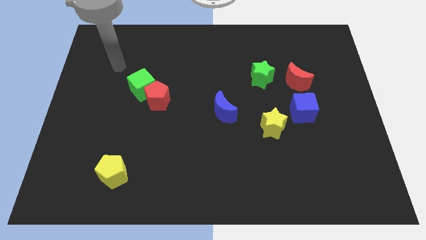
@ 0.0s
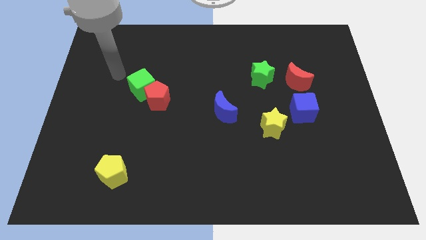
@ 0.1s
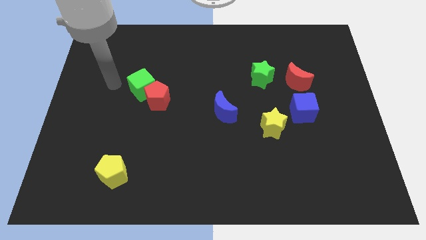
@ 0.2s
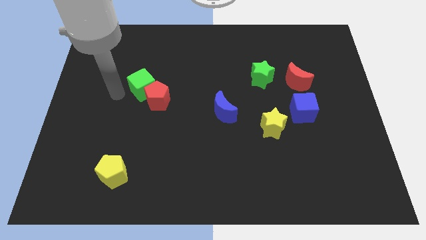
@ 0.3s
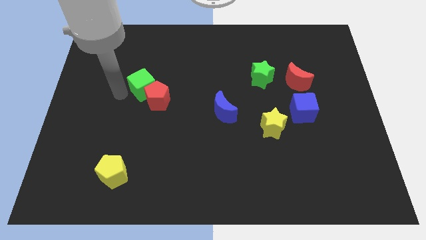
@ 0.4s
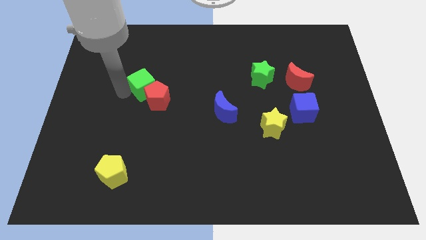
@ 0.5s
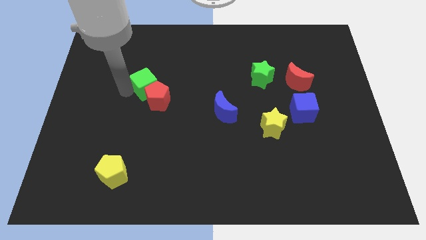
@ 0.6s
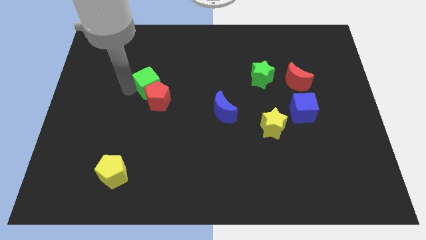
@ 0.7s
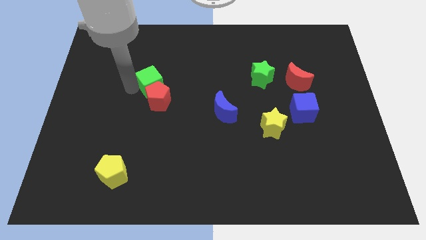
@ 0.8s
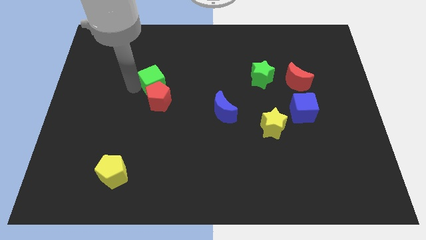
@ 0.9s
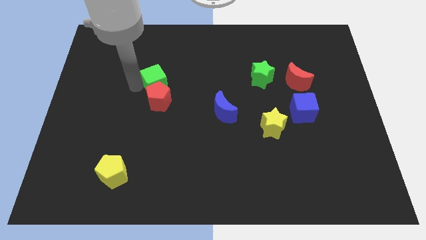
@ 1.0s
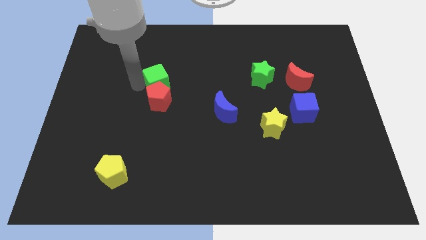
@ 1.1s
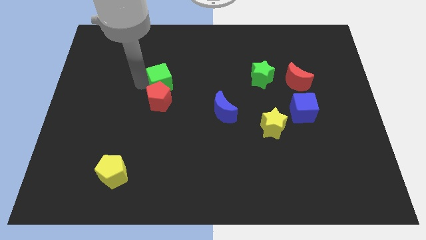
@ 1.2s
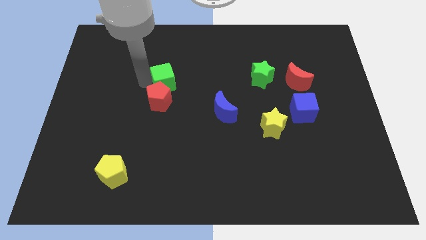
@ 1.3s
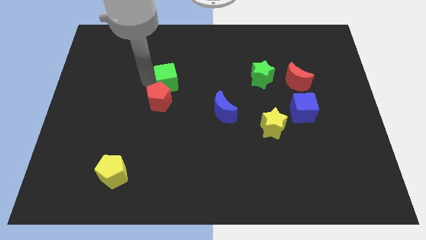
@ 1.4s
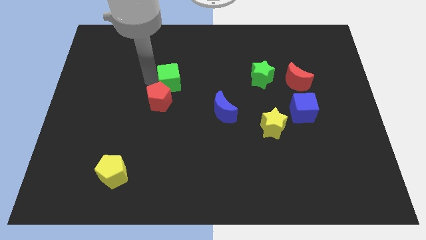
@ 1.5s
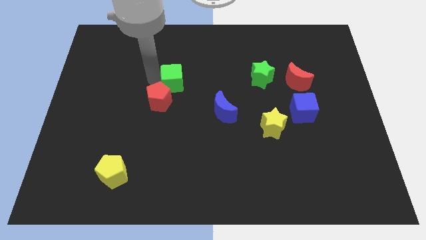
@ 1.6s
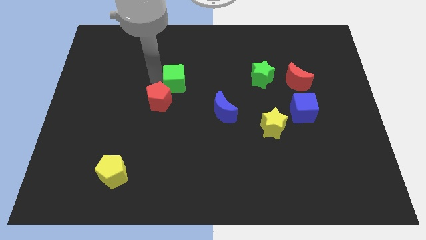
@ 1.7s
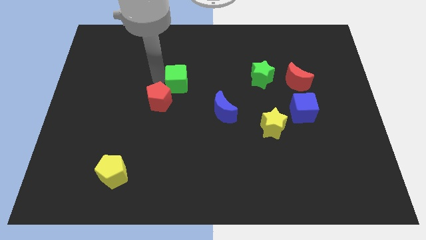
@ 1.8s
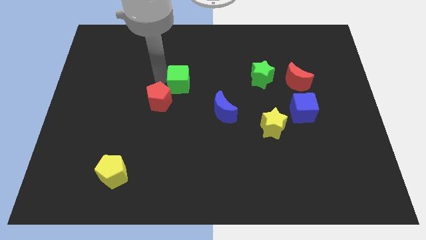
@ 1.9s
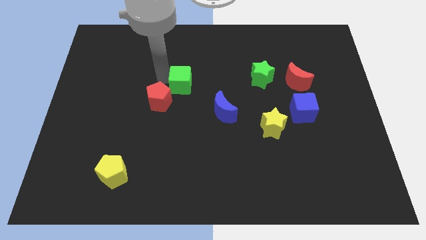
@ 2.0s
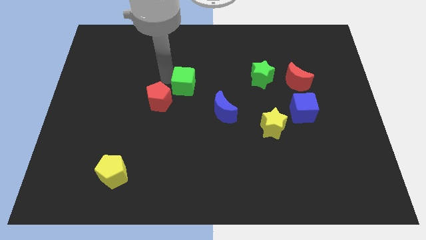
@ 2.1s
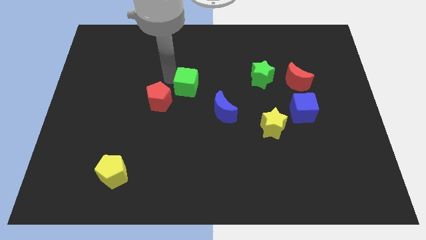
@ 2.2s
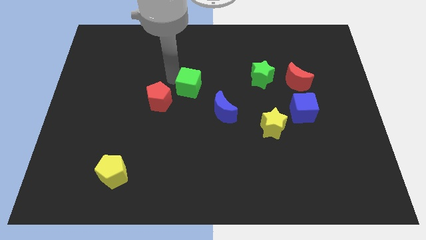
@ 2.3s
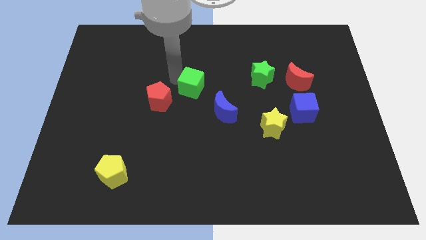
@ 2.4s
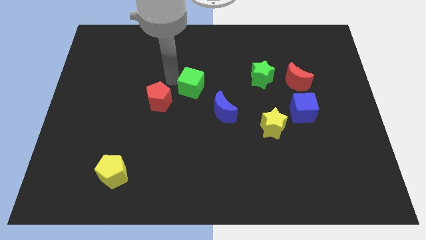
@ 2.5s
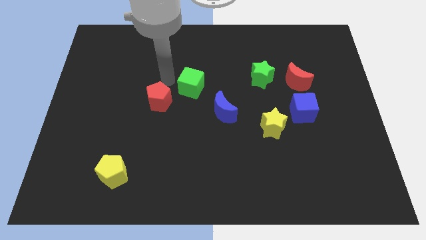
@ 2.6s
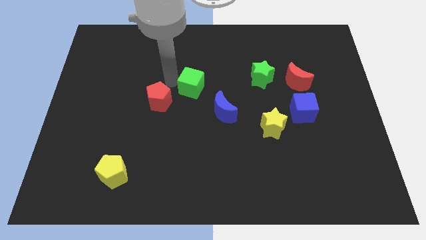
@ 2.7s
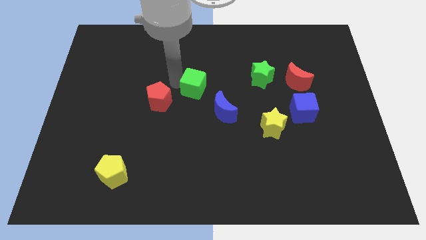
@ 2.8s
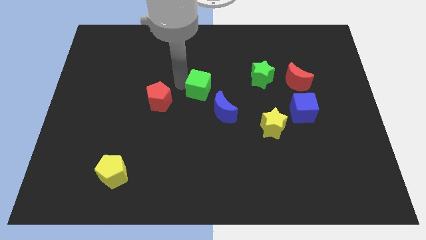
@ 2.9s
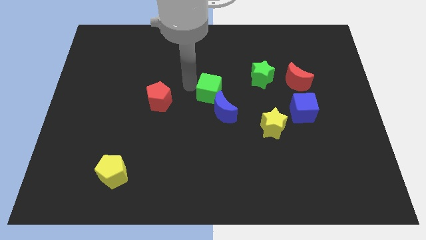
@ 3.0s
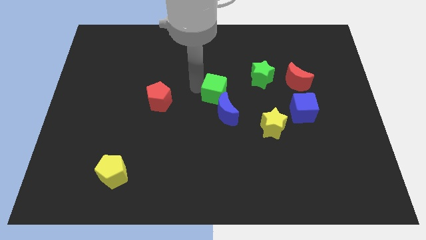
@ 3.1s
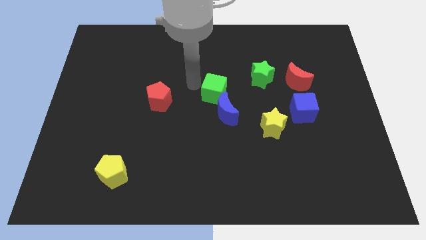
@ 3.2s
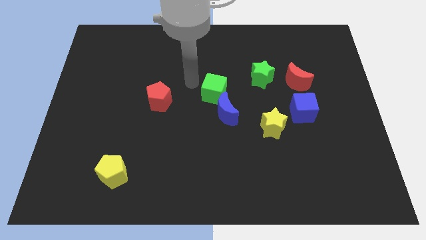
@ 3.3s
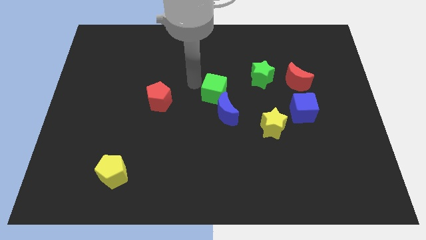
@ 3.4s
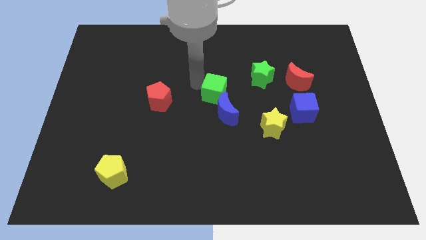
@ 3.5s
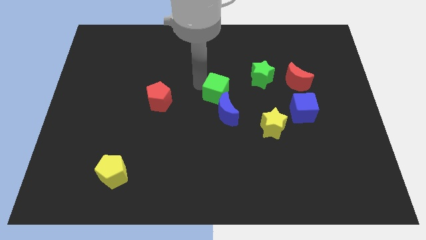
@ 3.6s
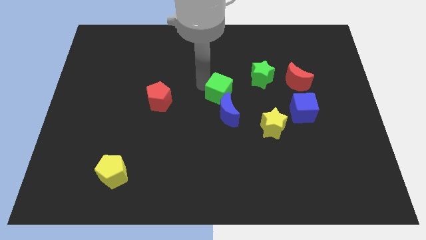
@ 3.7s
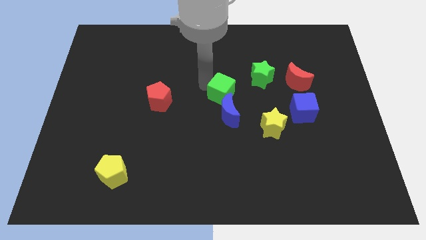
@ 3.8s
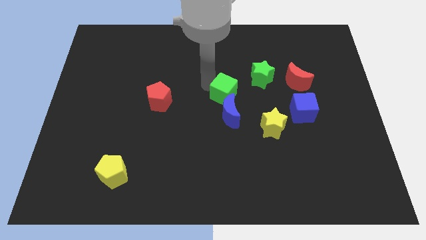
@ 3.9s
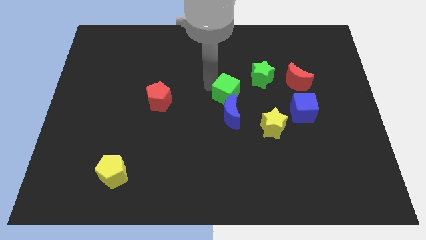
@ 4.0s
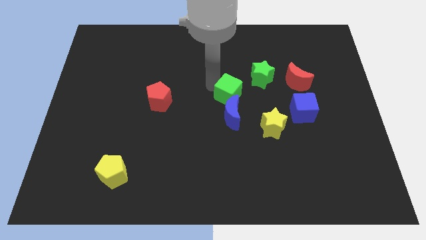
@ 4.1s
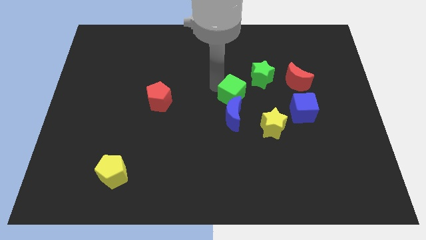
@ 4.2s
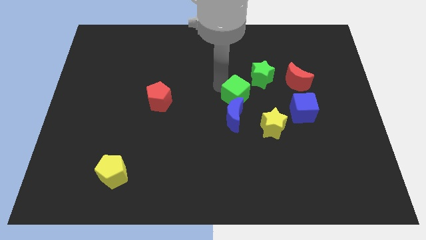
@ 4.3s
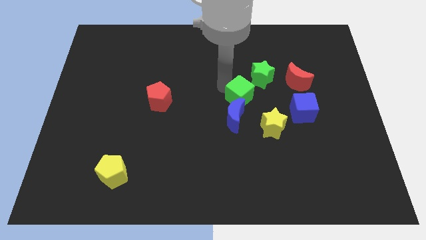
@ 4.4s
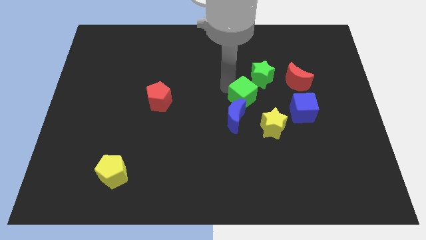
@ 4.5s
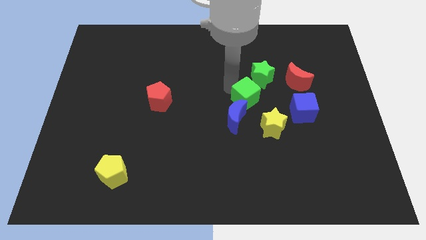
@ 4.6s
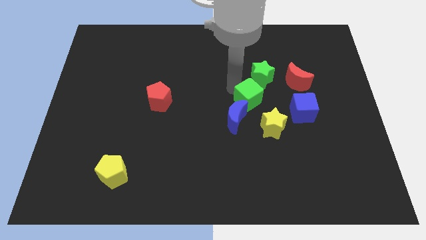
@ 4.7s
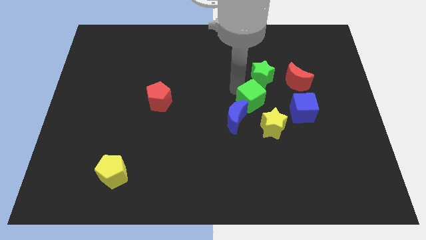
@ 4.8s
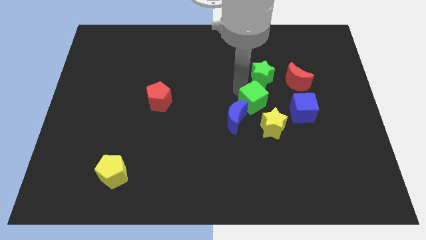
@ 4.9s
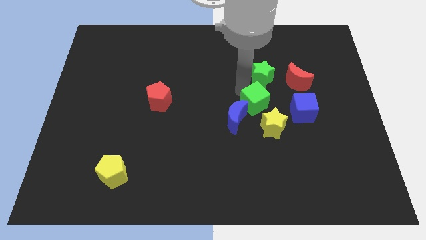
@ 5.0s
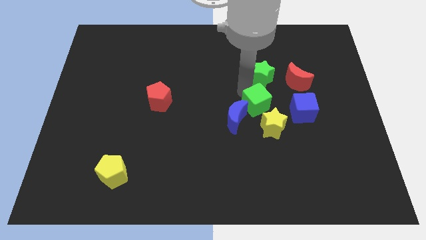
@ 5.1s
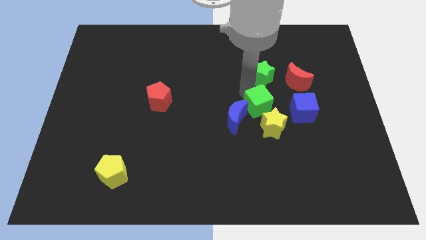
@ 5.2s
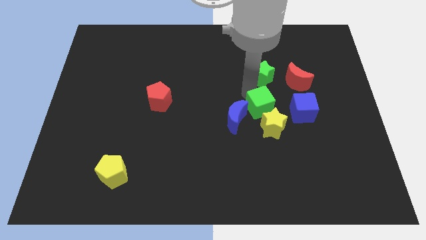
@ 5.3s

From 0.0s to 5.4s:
push the green cube next to the yellow star

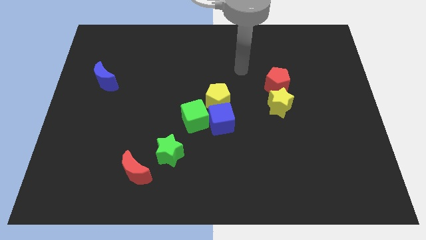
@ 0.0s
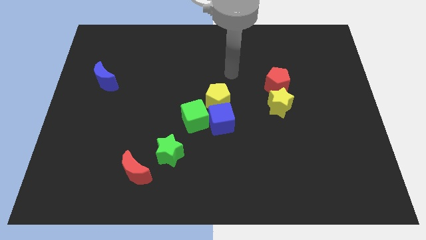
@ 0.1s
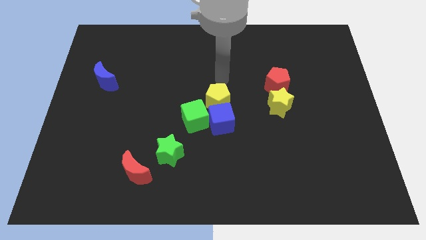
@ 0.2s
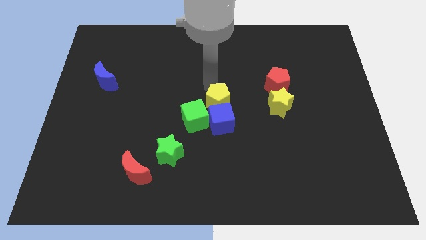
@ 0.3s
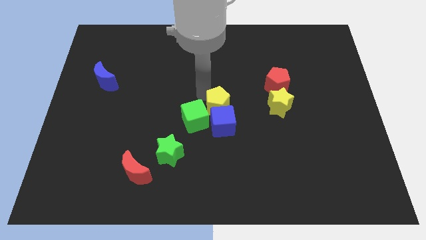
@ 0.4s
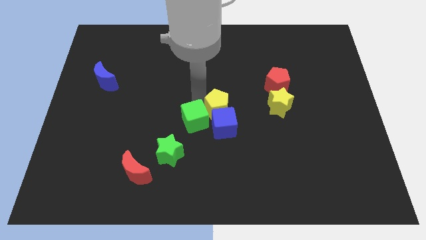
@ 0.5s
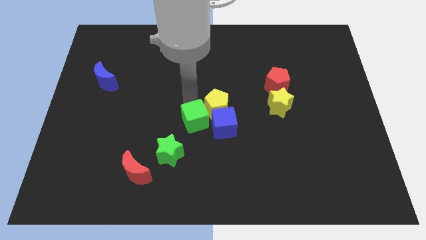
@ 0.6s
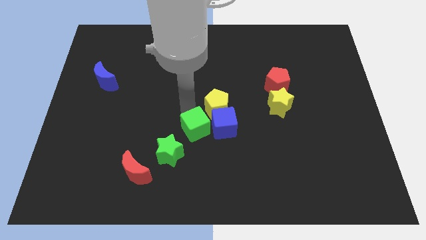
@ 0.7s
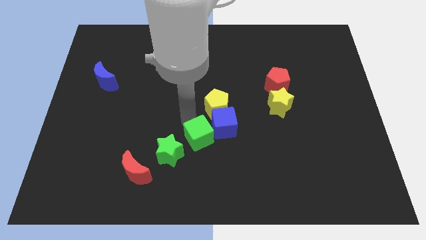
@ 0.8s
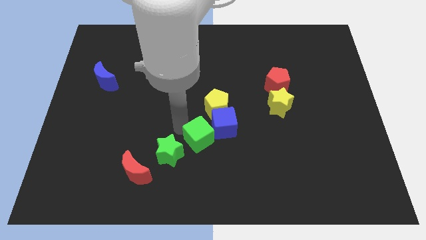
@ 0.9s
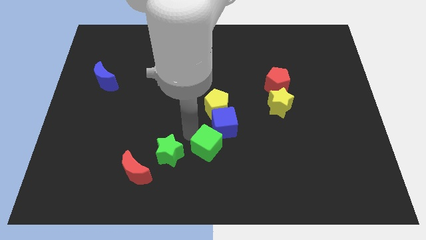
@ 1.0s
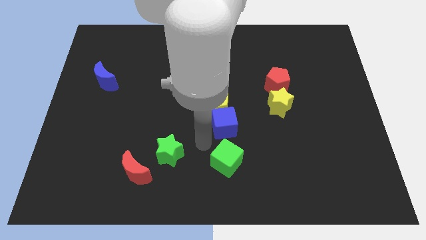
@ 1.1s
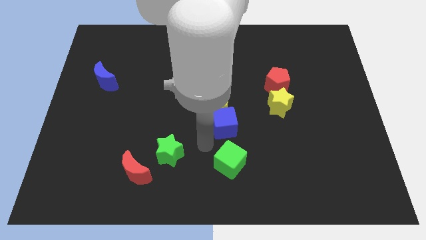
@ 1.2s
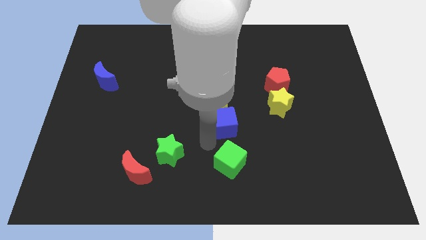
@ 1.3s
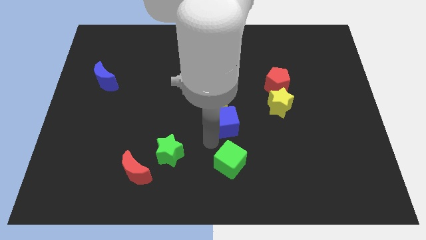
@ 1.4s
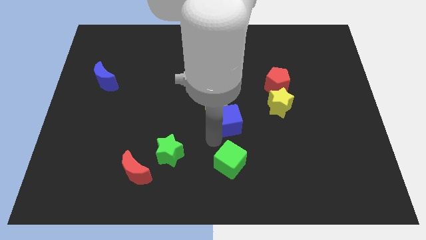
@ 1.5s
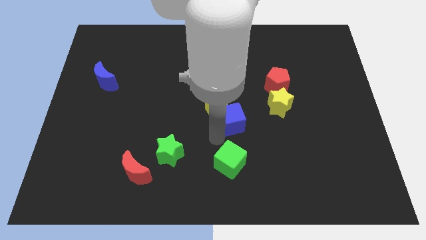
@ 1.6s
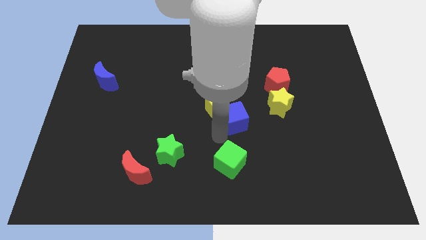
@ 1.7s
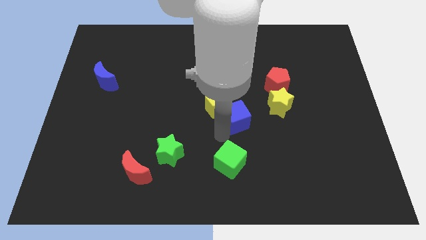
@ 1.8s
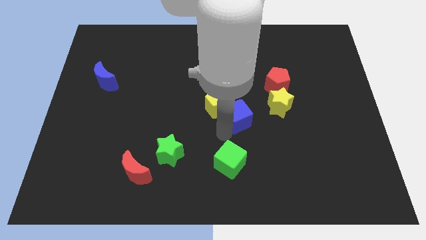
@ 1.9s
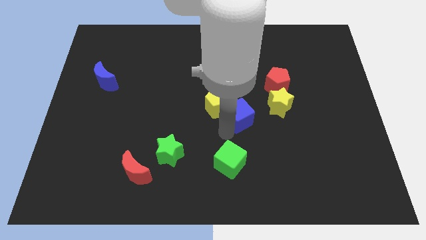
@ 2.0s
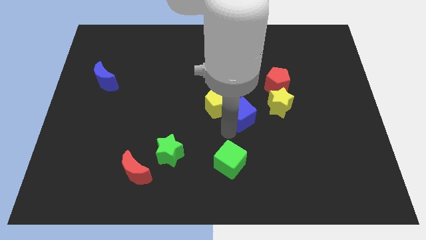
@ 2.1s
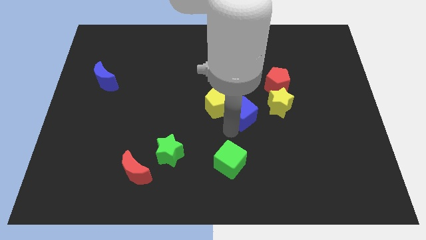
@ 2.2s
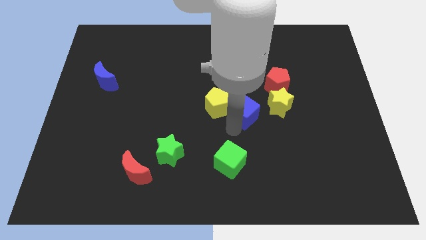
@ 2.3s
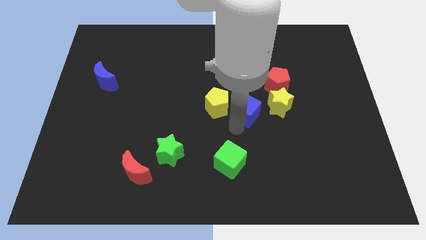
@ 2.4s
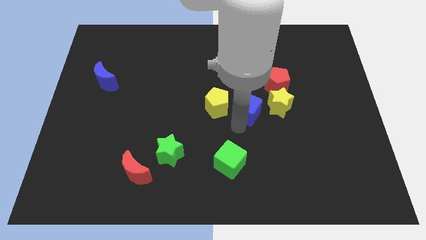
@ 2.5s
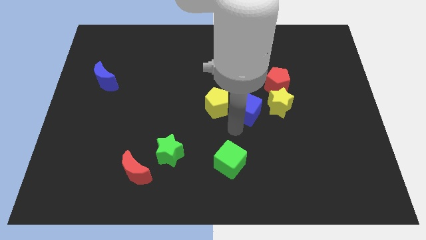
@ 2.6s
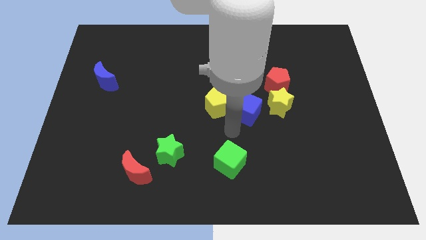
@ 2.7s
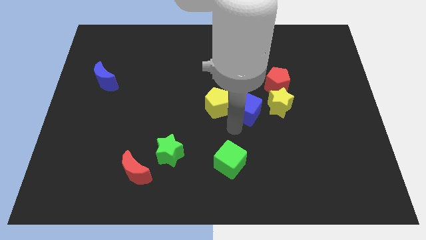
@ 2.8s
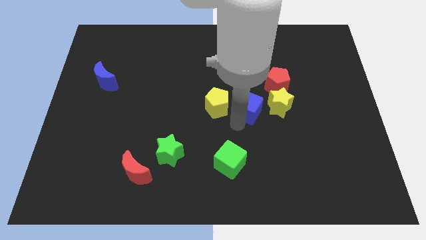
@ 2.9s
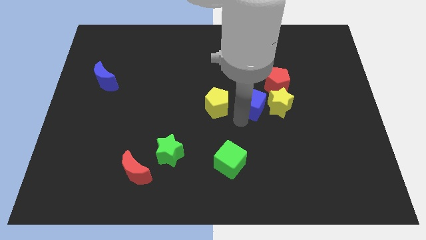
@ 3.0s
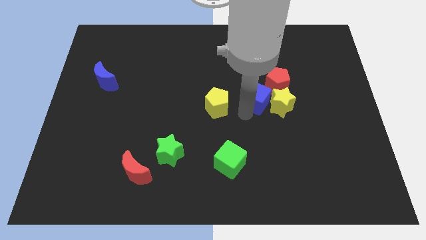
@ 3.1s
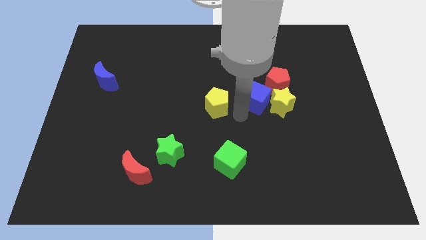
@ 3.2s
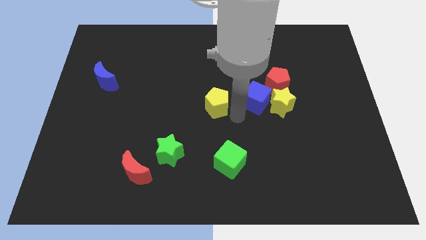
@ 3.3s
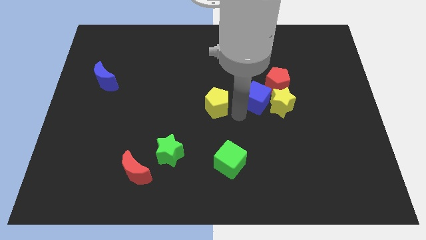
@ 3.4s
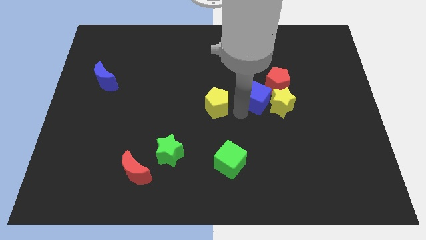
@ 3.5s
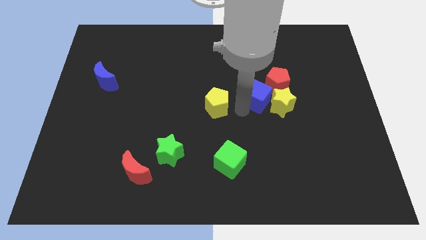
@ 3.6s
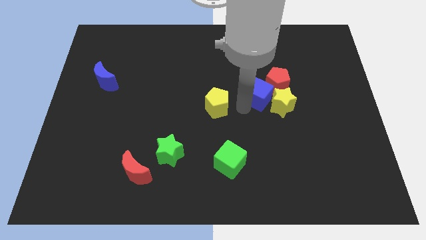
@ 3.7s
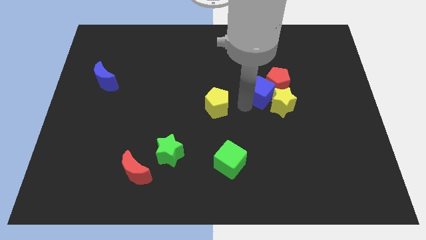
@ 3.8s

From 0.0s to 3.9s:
put the blue cube to the red pentagon
